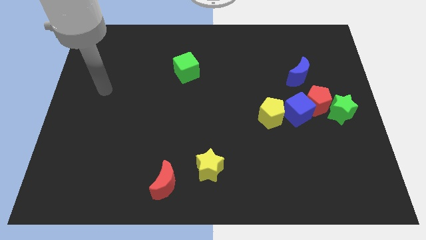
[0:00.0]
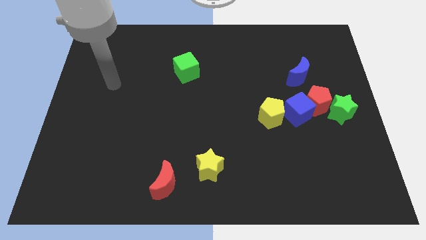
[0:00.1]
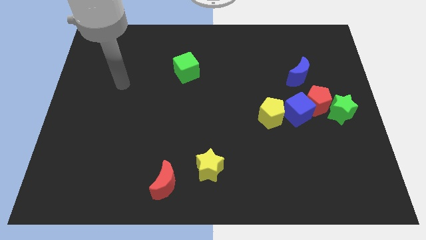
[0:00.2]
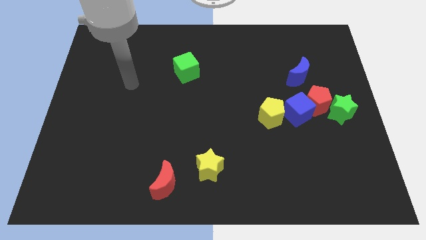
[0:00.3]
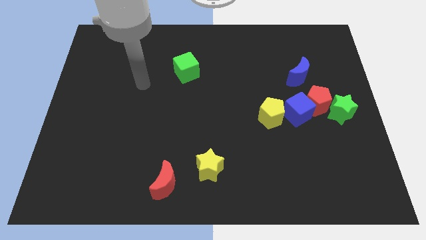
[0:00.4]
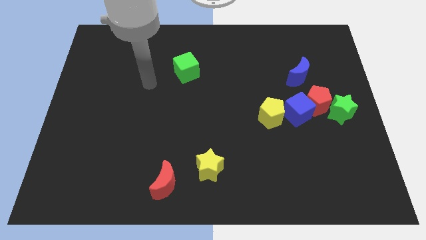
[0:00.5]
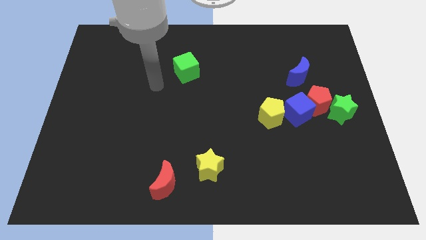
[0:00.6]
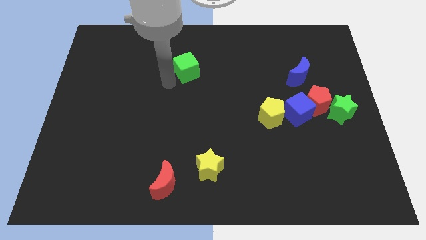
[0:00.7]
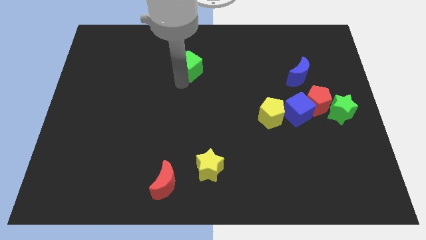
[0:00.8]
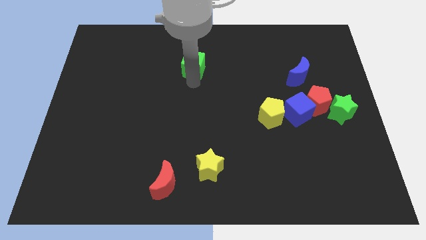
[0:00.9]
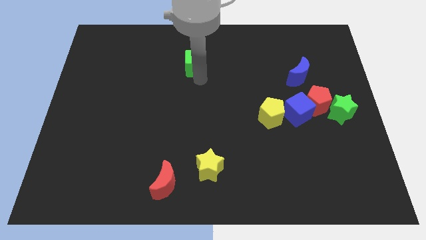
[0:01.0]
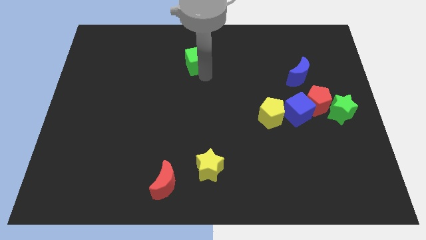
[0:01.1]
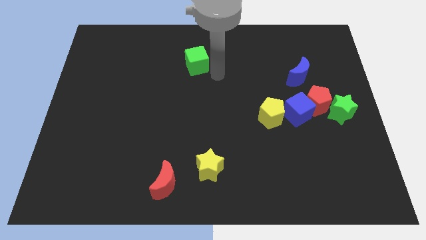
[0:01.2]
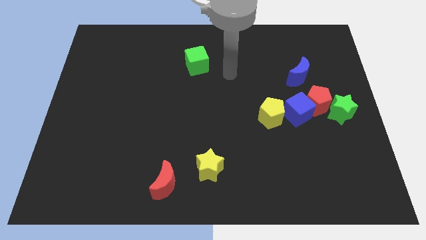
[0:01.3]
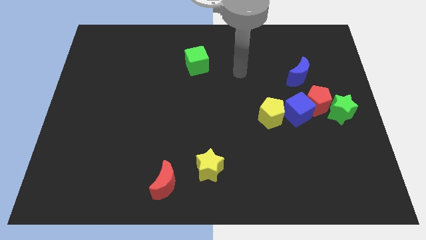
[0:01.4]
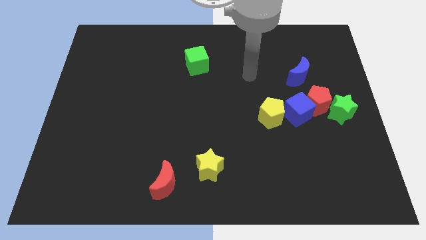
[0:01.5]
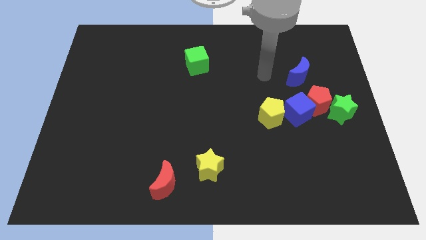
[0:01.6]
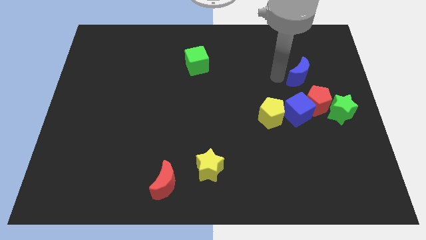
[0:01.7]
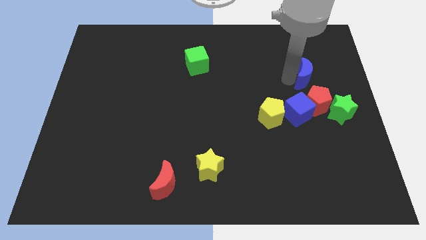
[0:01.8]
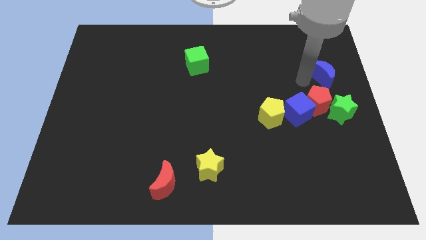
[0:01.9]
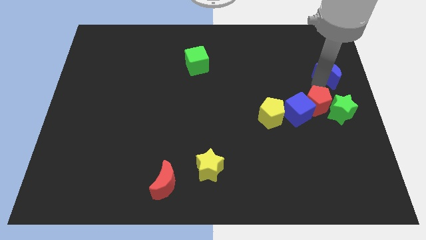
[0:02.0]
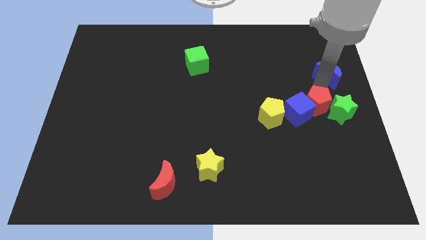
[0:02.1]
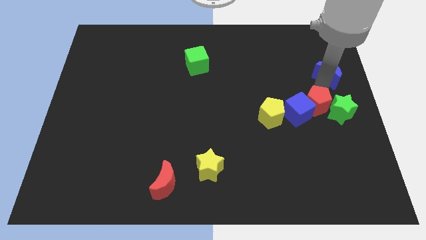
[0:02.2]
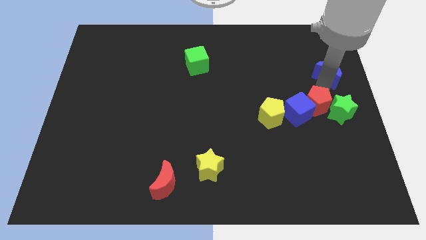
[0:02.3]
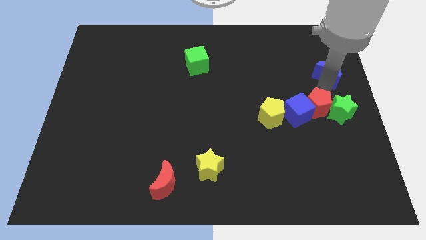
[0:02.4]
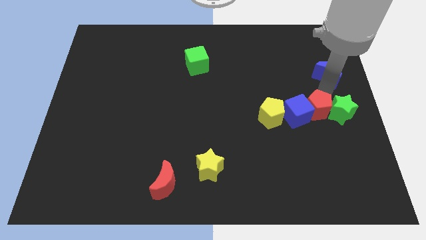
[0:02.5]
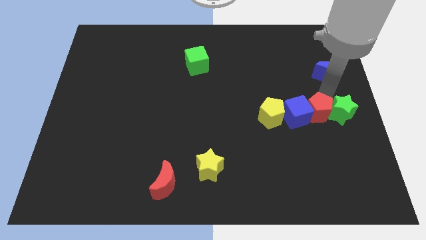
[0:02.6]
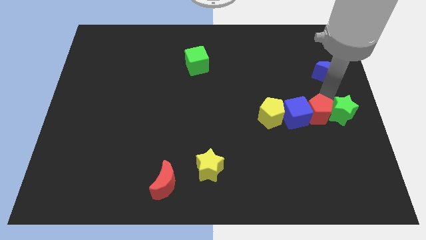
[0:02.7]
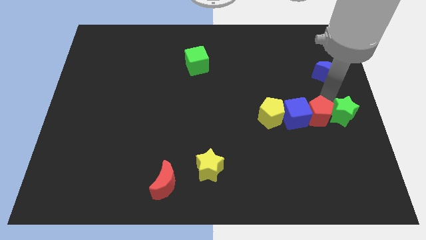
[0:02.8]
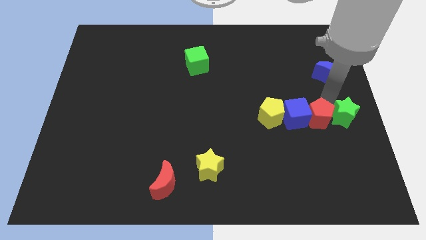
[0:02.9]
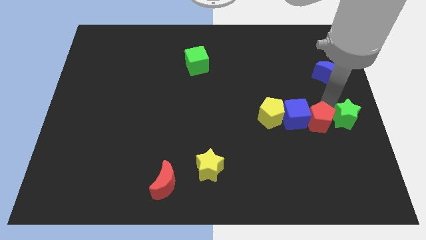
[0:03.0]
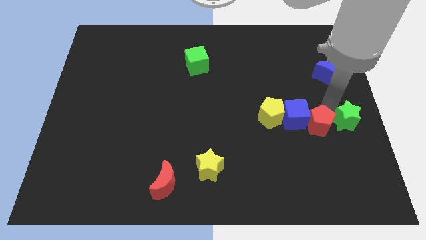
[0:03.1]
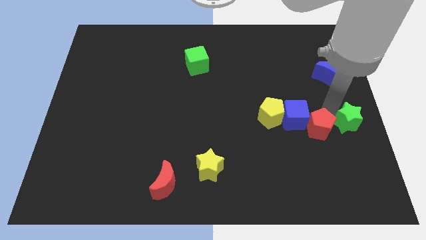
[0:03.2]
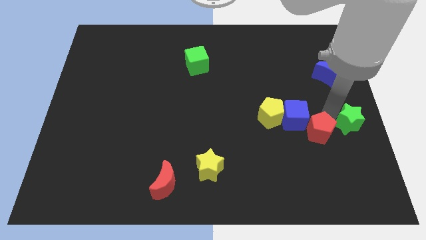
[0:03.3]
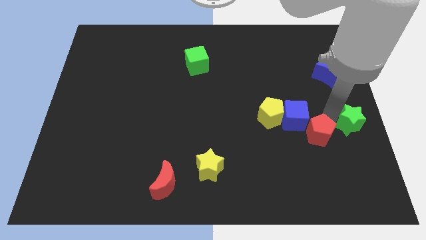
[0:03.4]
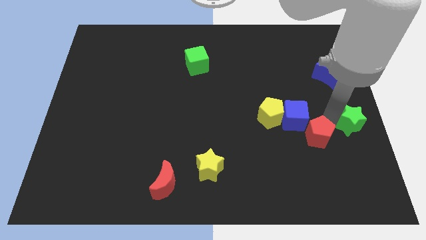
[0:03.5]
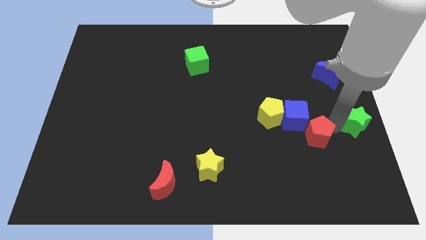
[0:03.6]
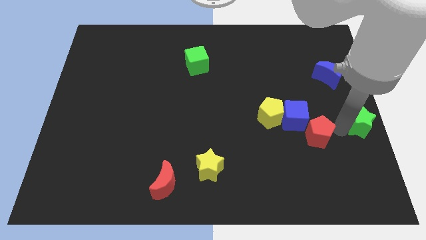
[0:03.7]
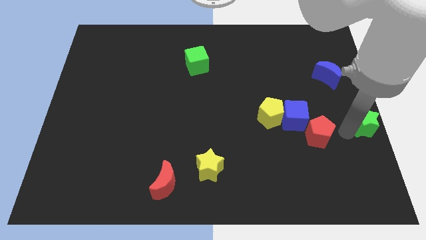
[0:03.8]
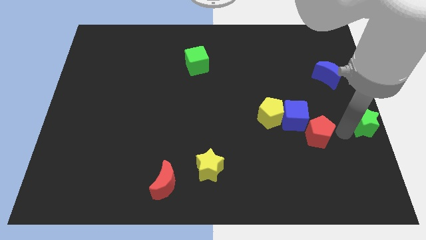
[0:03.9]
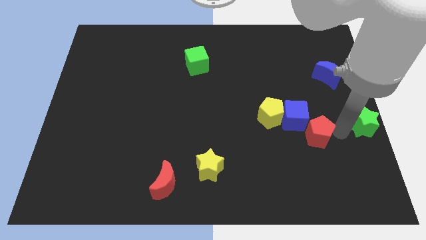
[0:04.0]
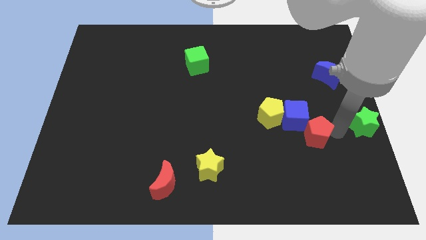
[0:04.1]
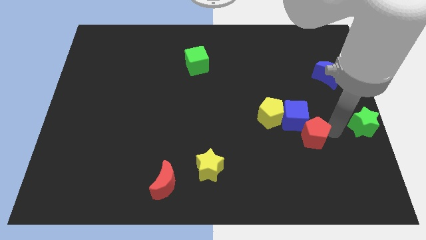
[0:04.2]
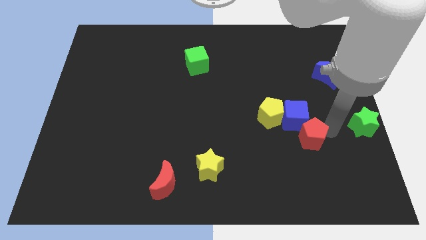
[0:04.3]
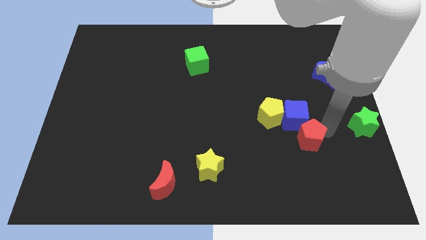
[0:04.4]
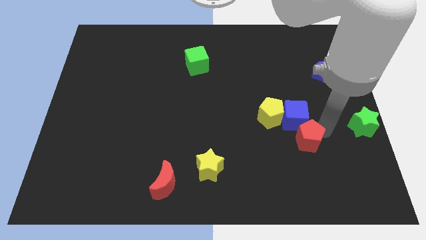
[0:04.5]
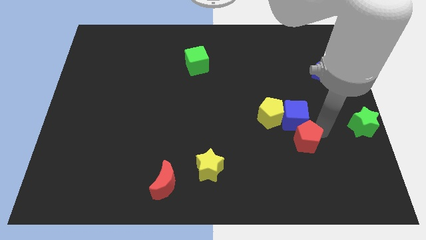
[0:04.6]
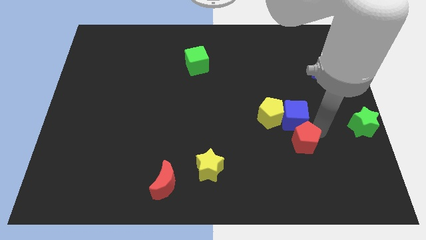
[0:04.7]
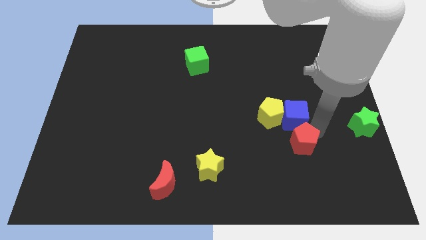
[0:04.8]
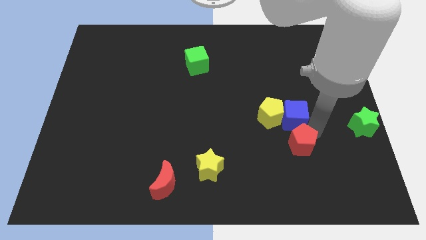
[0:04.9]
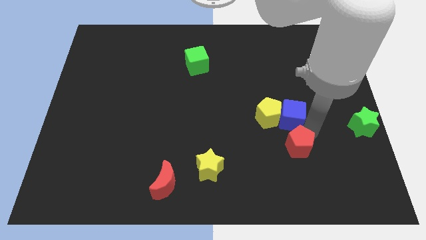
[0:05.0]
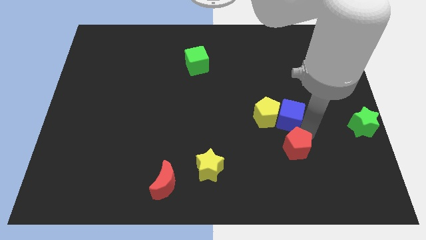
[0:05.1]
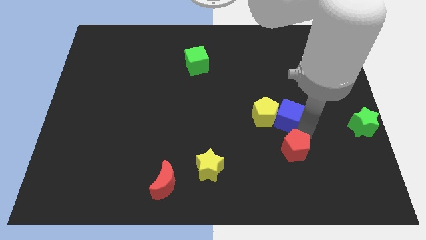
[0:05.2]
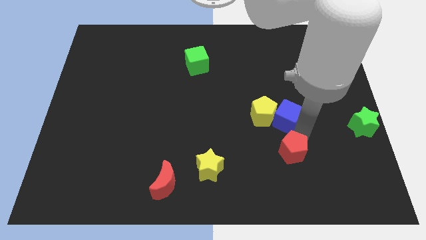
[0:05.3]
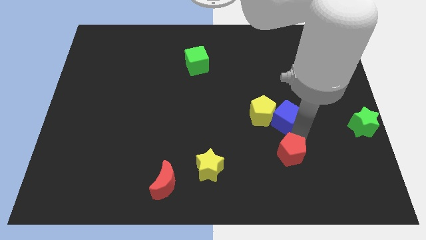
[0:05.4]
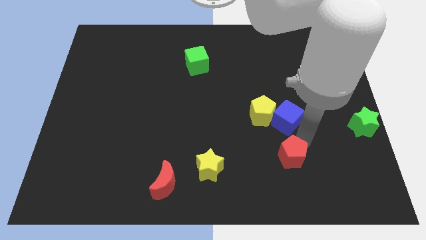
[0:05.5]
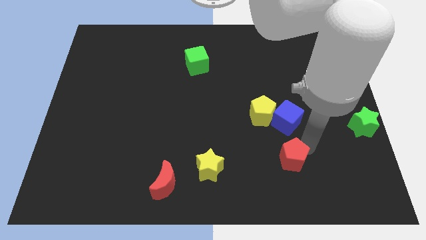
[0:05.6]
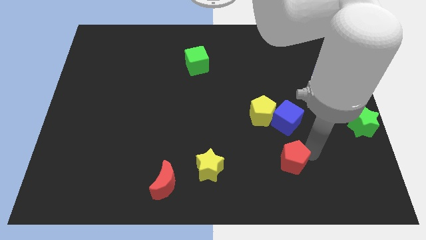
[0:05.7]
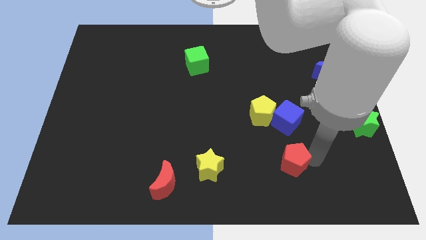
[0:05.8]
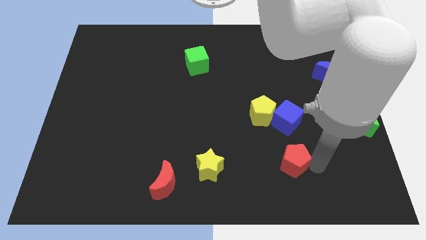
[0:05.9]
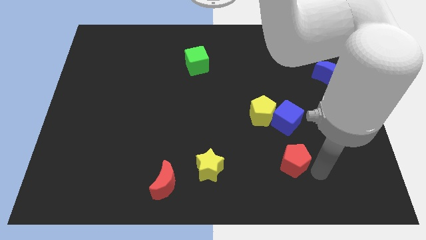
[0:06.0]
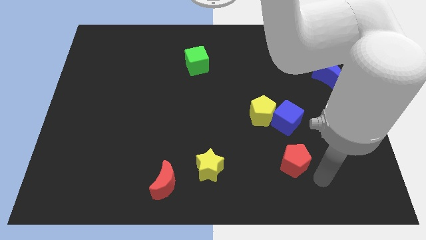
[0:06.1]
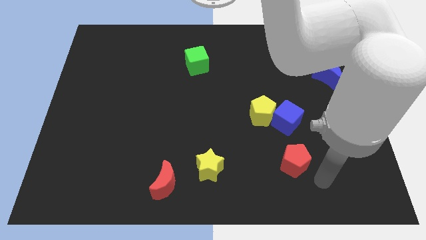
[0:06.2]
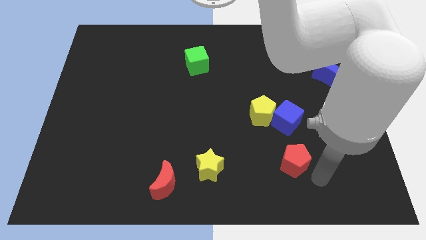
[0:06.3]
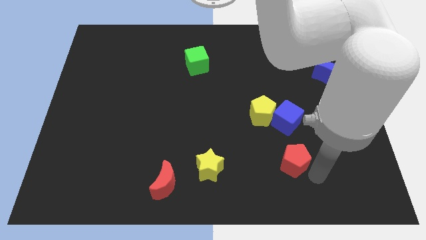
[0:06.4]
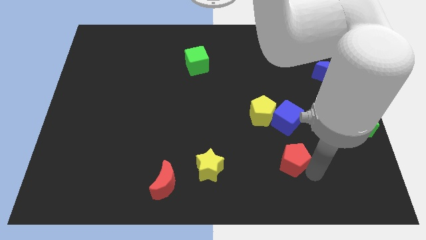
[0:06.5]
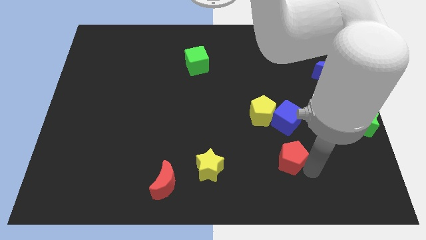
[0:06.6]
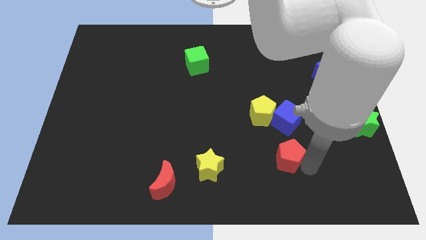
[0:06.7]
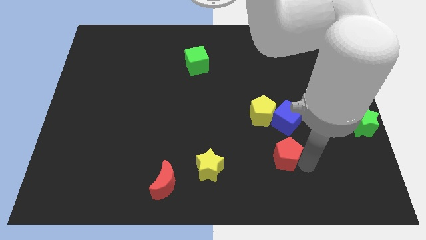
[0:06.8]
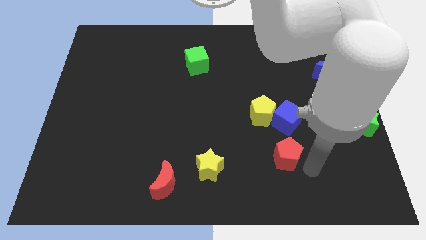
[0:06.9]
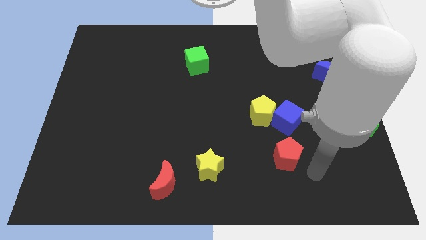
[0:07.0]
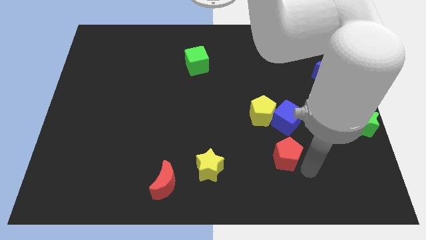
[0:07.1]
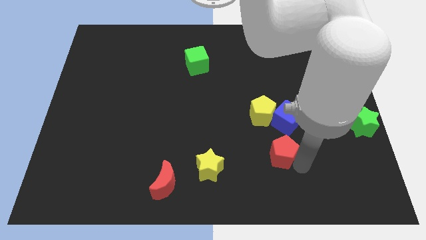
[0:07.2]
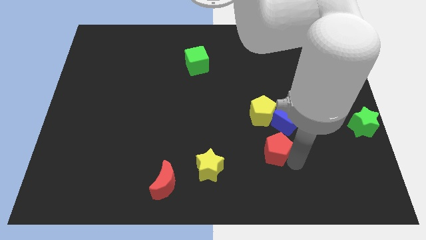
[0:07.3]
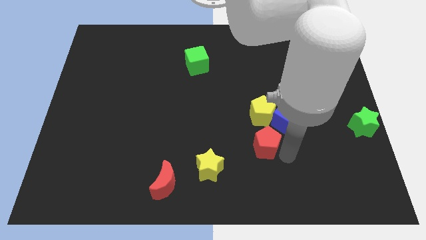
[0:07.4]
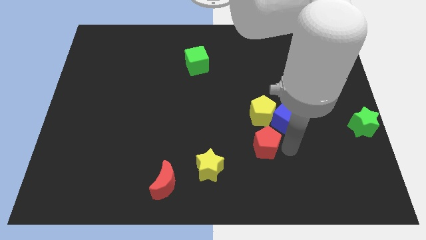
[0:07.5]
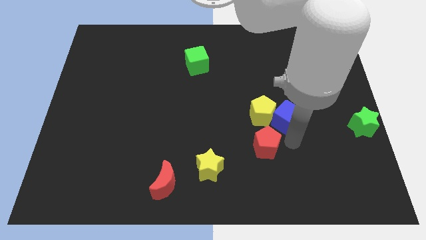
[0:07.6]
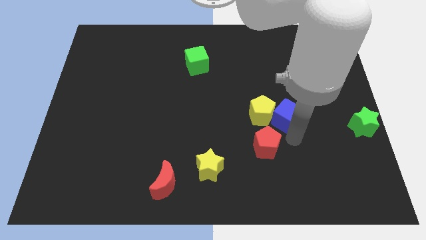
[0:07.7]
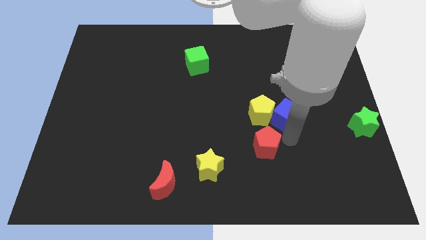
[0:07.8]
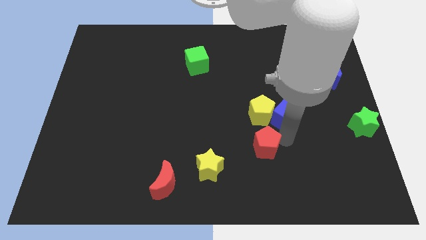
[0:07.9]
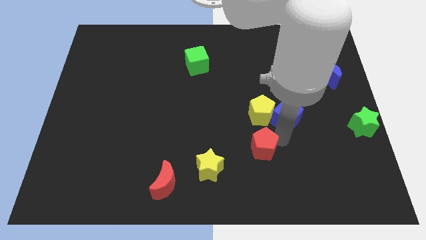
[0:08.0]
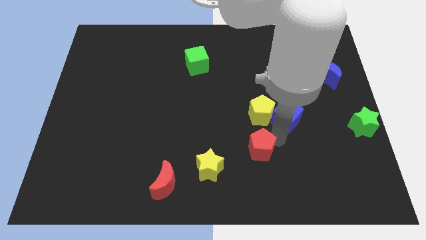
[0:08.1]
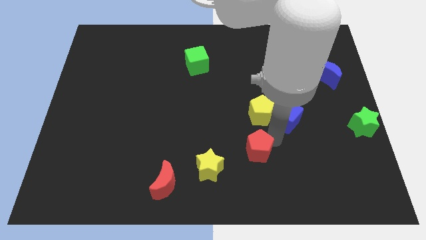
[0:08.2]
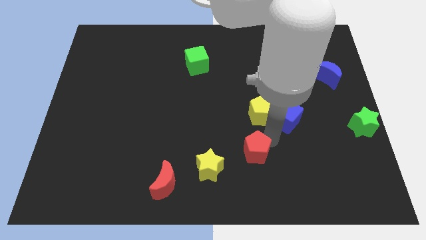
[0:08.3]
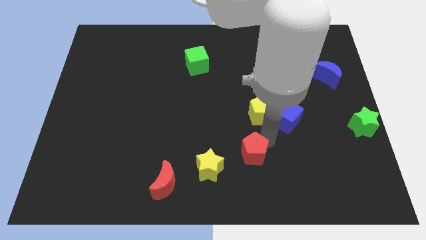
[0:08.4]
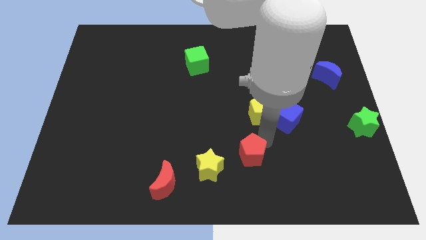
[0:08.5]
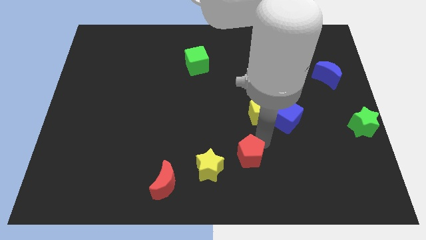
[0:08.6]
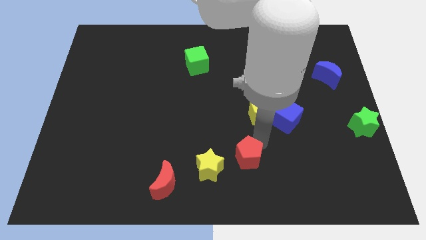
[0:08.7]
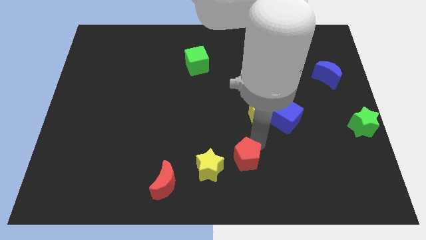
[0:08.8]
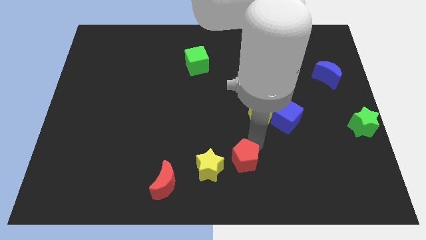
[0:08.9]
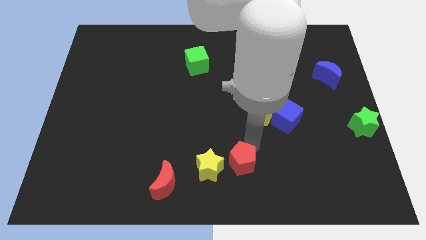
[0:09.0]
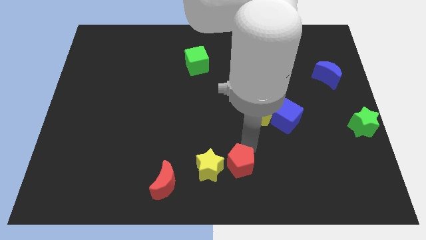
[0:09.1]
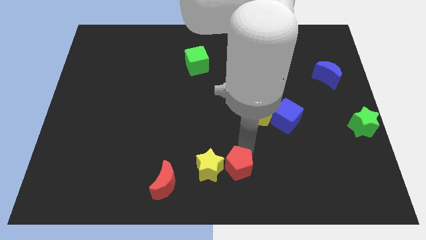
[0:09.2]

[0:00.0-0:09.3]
put the red pentagon close to the yellow star
